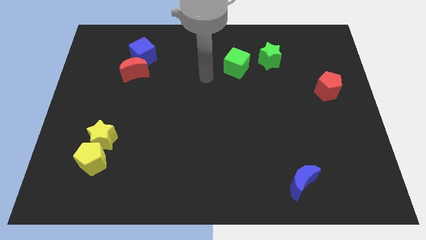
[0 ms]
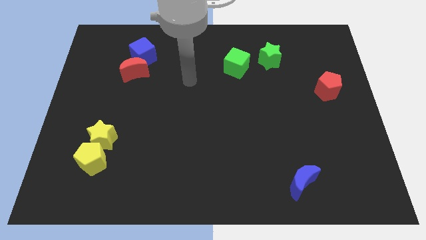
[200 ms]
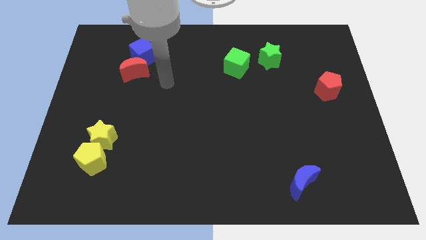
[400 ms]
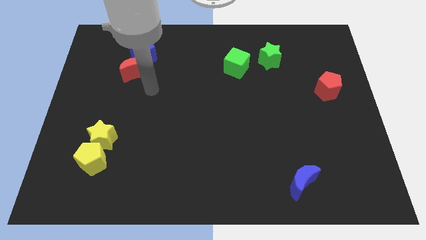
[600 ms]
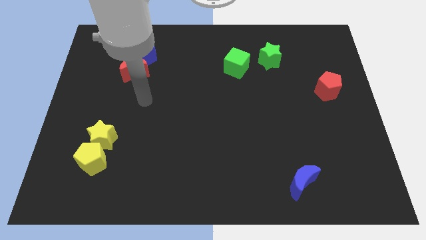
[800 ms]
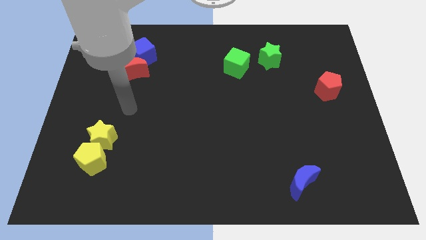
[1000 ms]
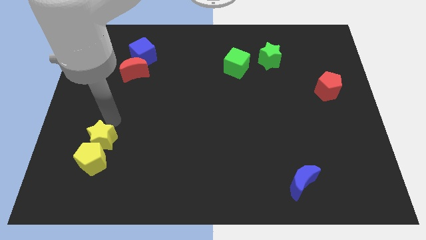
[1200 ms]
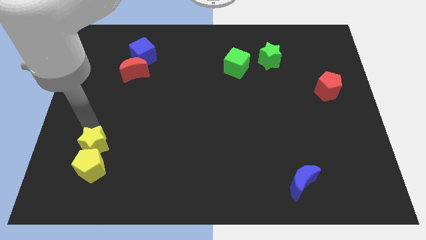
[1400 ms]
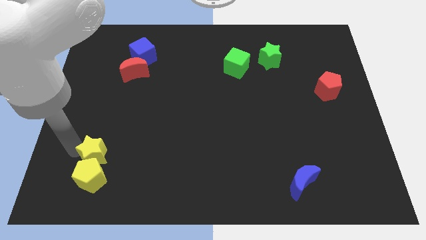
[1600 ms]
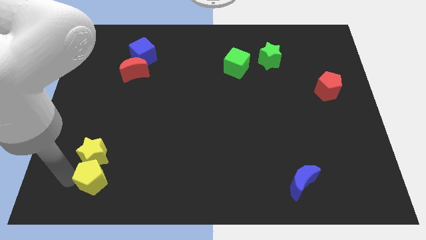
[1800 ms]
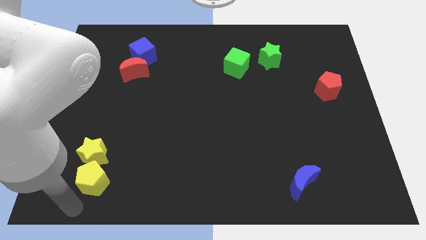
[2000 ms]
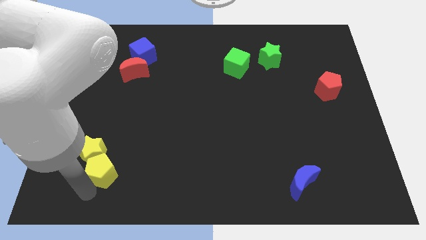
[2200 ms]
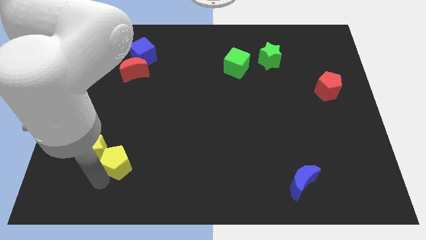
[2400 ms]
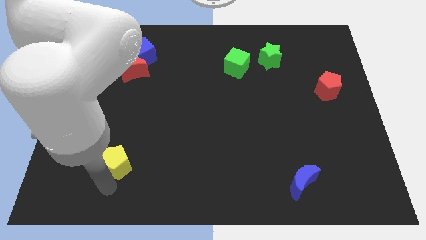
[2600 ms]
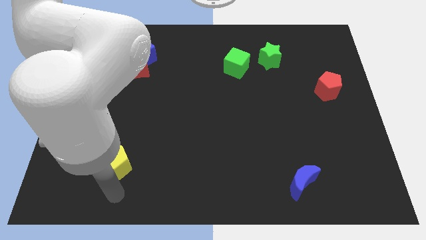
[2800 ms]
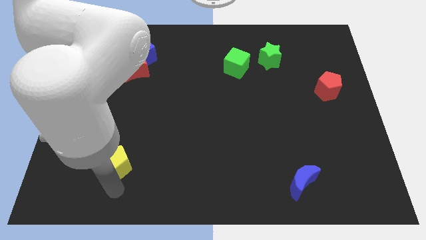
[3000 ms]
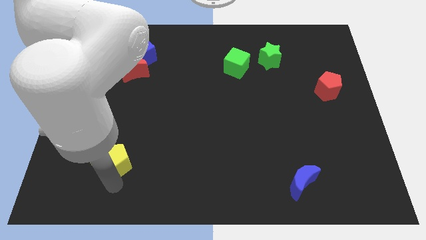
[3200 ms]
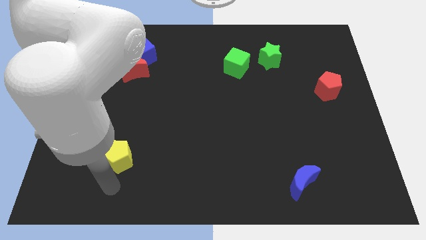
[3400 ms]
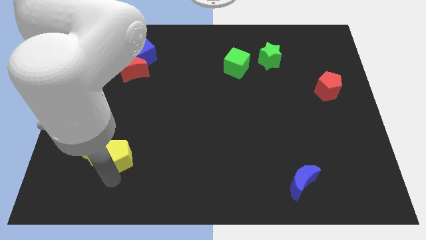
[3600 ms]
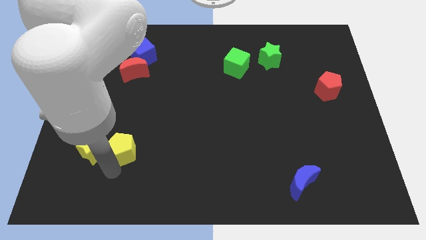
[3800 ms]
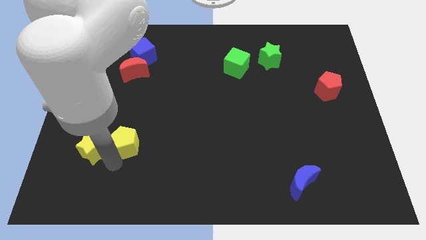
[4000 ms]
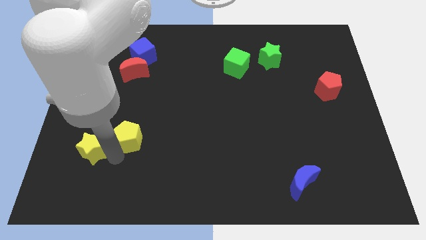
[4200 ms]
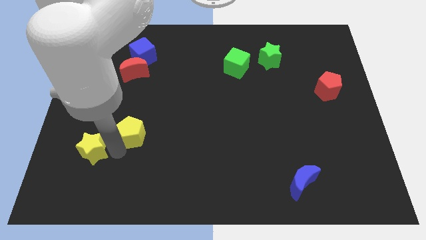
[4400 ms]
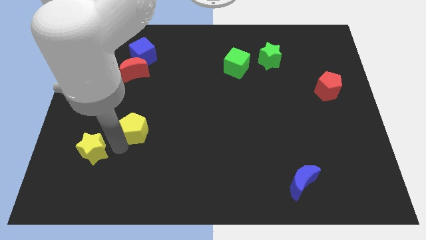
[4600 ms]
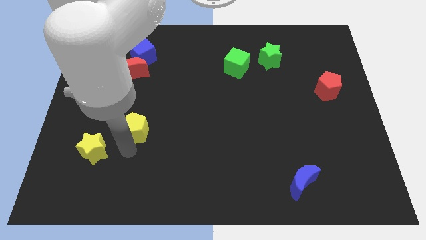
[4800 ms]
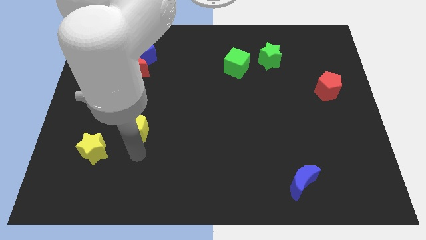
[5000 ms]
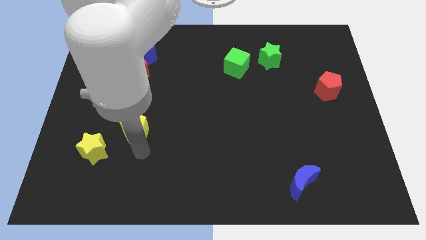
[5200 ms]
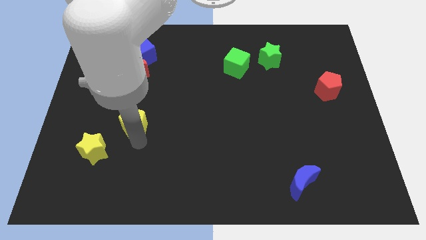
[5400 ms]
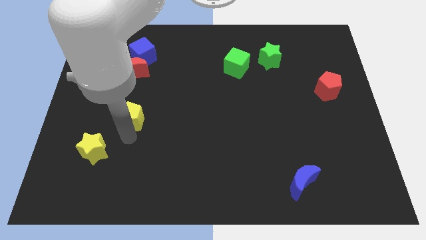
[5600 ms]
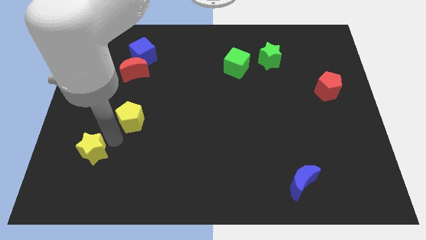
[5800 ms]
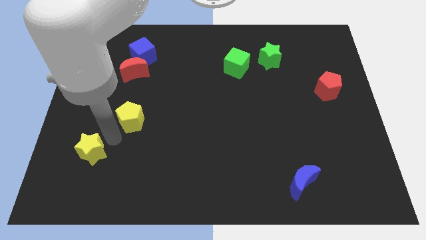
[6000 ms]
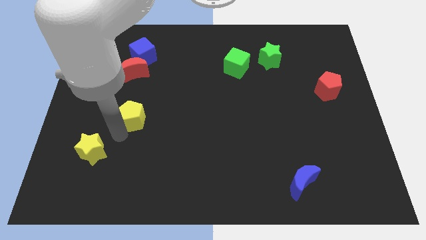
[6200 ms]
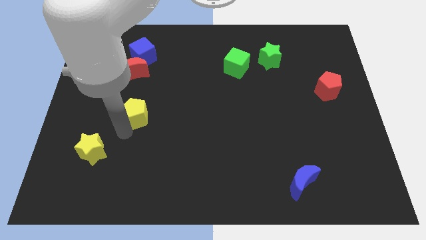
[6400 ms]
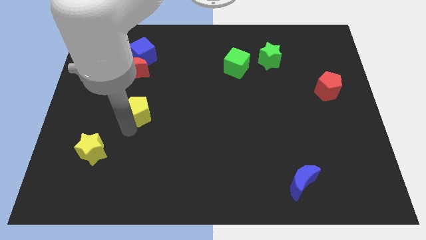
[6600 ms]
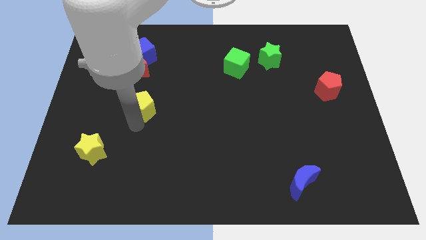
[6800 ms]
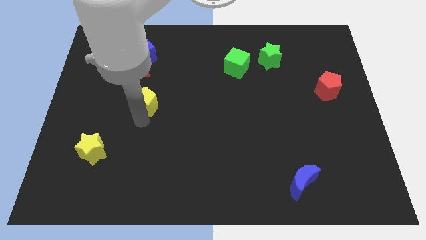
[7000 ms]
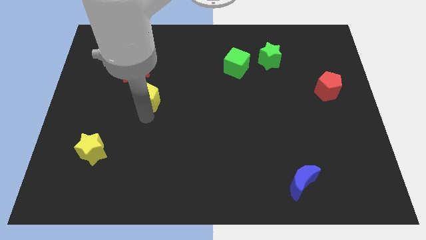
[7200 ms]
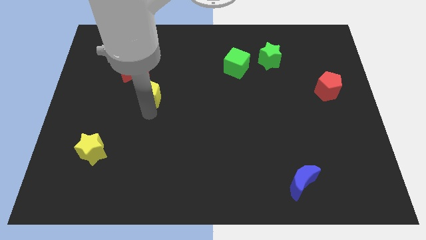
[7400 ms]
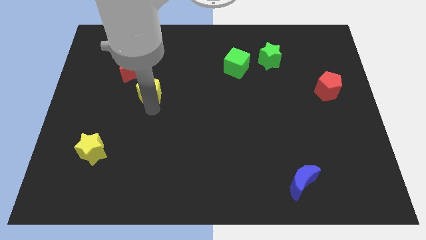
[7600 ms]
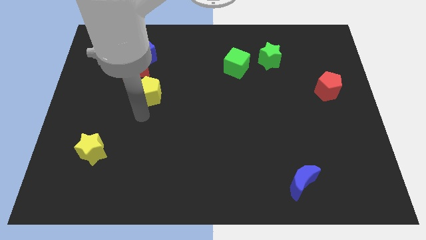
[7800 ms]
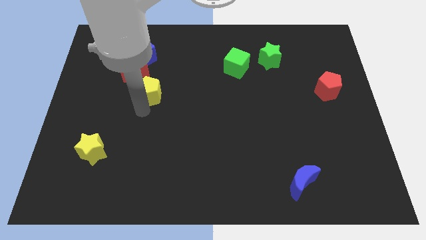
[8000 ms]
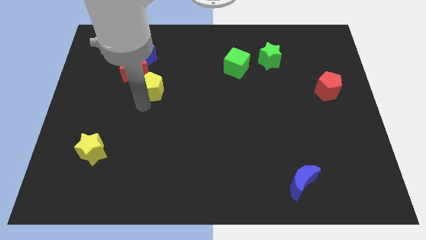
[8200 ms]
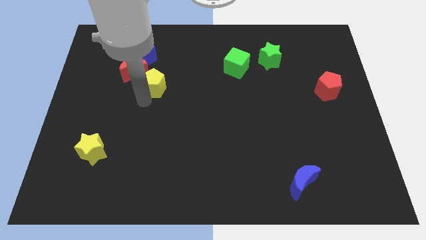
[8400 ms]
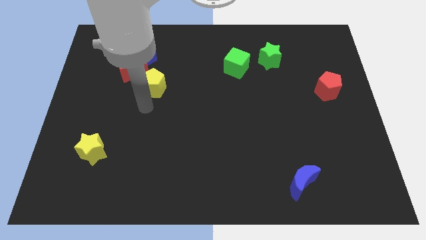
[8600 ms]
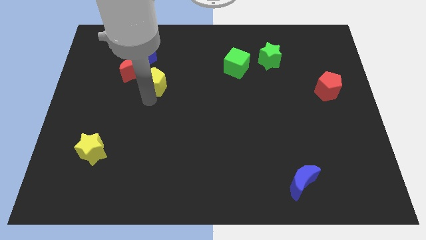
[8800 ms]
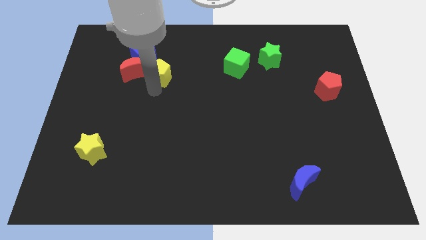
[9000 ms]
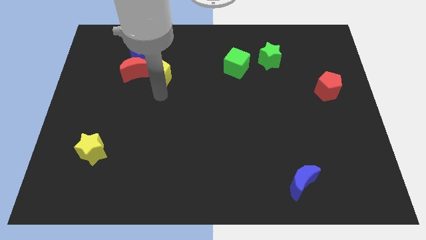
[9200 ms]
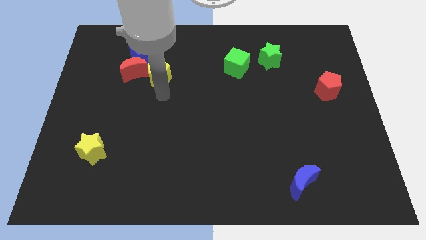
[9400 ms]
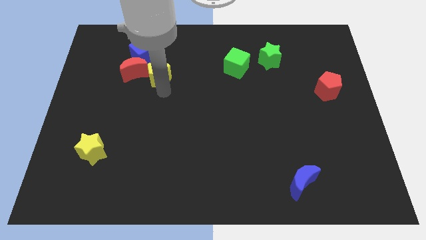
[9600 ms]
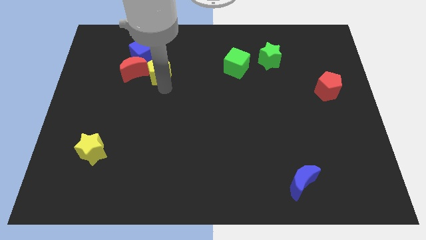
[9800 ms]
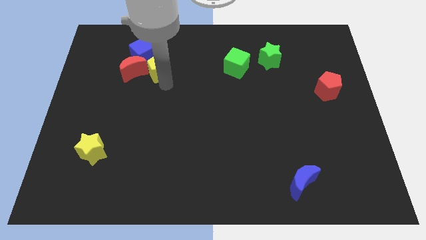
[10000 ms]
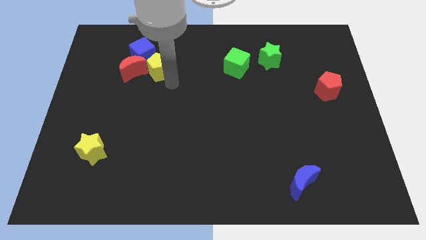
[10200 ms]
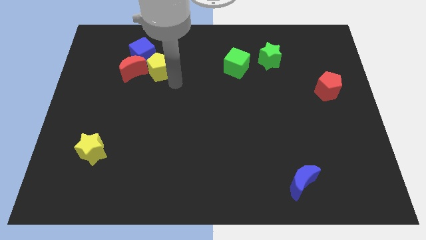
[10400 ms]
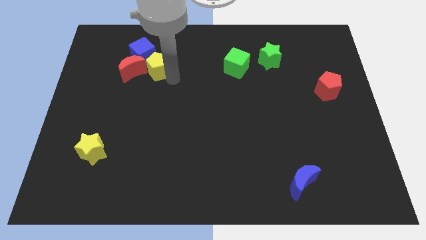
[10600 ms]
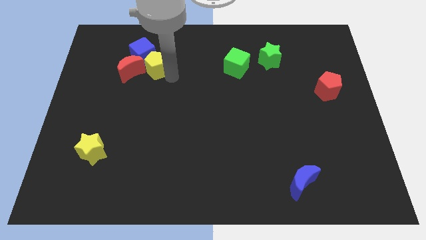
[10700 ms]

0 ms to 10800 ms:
move the yellow pentagon close to the blue cube
